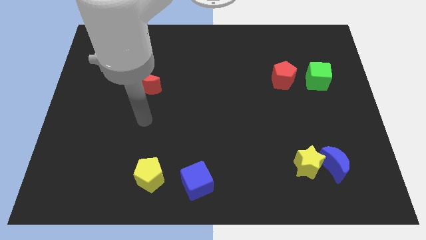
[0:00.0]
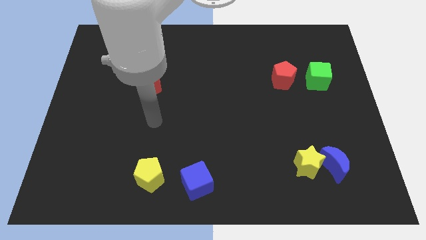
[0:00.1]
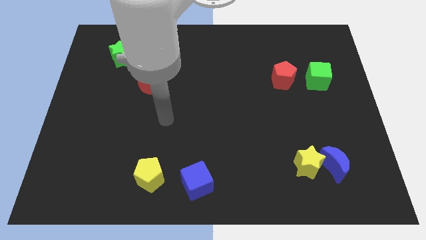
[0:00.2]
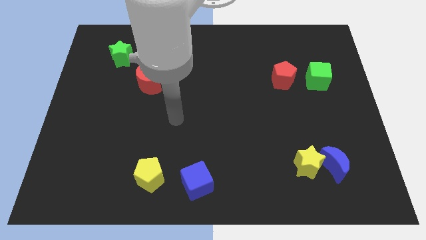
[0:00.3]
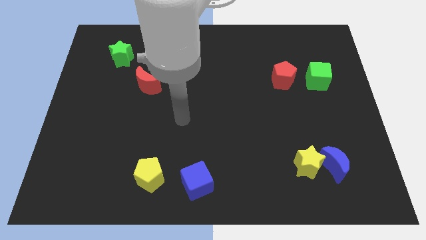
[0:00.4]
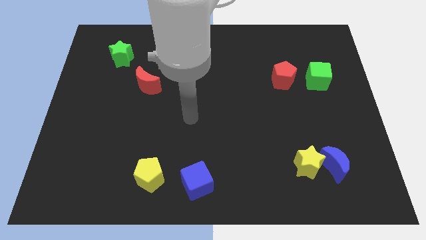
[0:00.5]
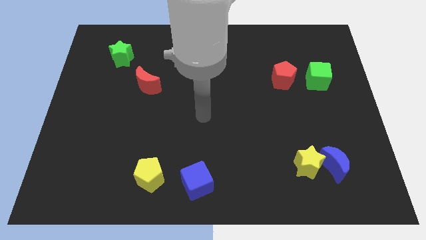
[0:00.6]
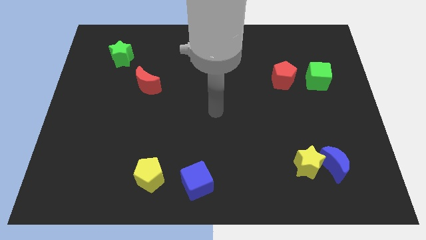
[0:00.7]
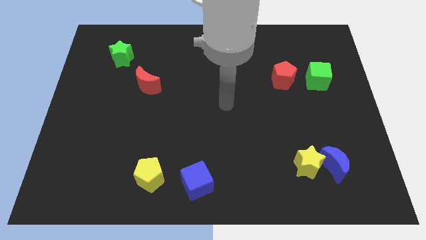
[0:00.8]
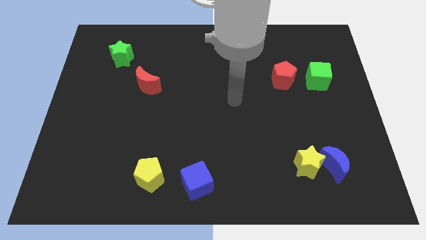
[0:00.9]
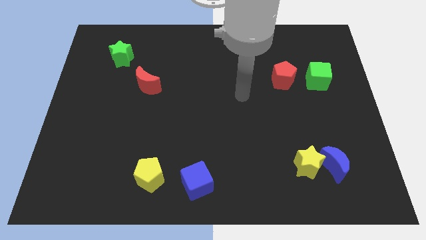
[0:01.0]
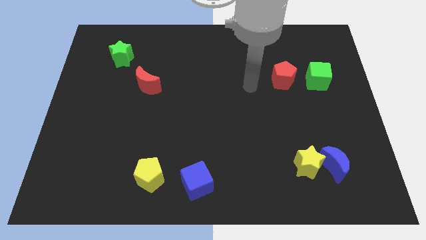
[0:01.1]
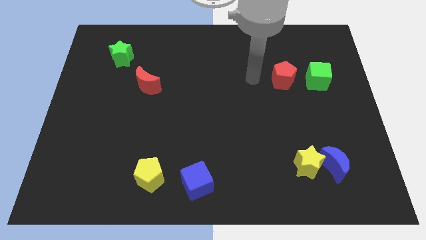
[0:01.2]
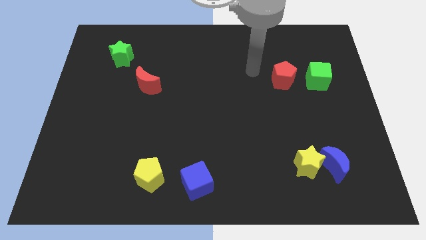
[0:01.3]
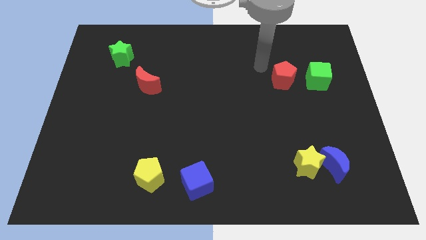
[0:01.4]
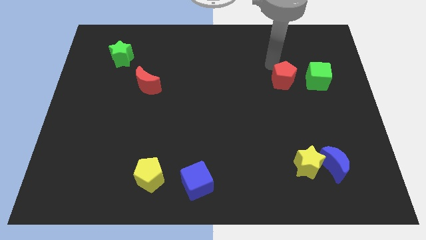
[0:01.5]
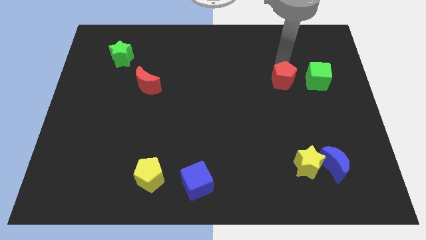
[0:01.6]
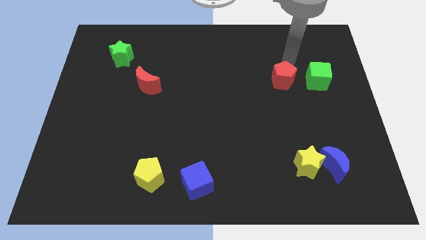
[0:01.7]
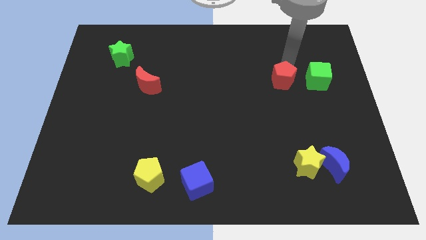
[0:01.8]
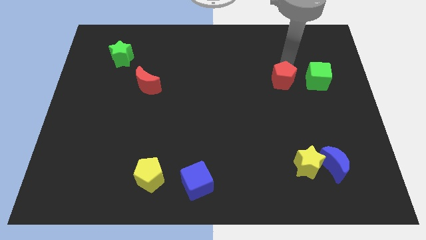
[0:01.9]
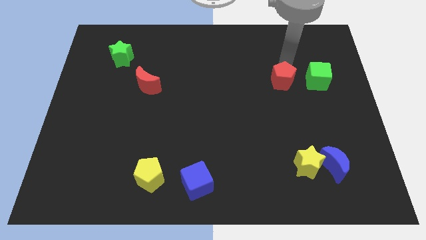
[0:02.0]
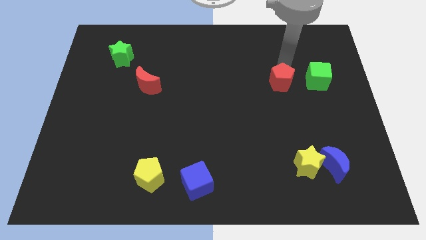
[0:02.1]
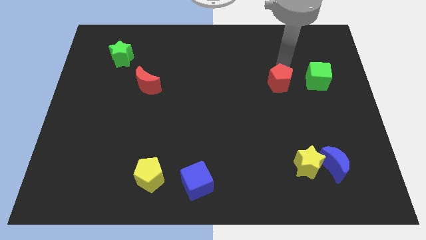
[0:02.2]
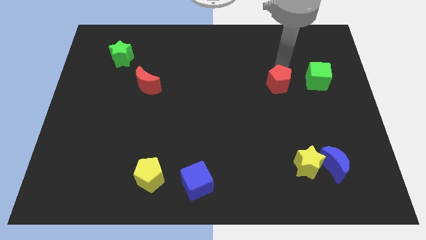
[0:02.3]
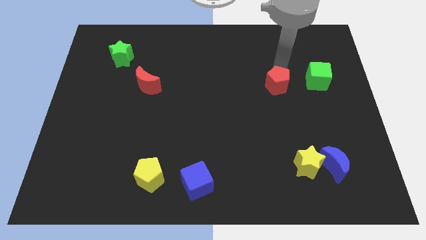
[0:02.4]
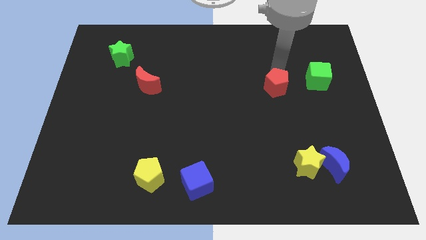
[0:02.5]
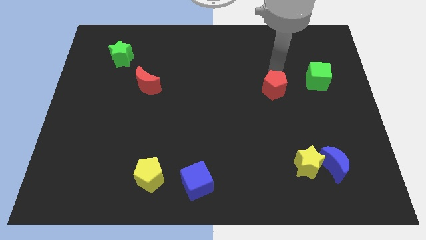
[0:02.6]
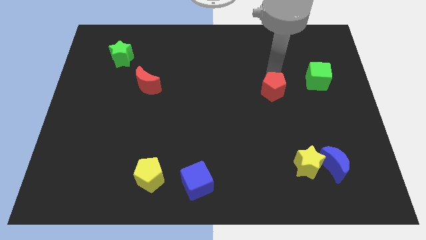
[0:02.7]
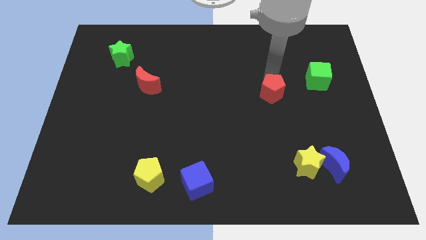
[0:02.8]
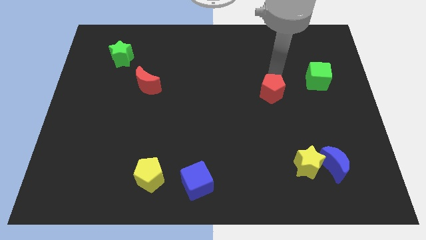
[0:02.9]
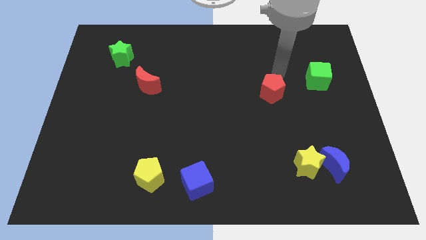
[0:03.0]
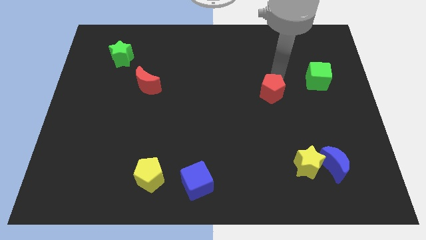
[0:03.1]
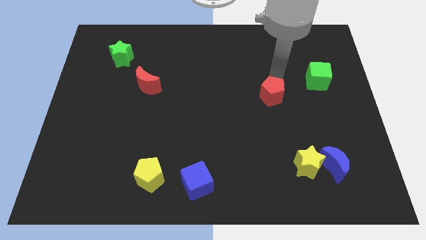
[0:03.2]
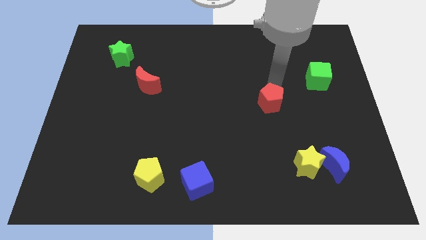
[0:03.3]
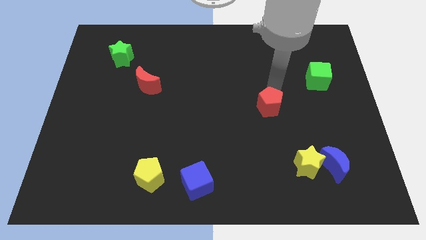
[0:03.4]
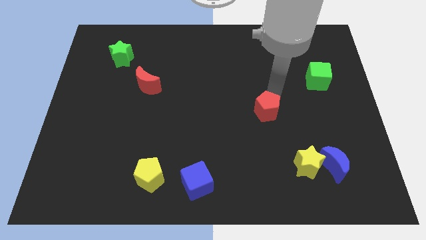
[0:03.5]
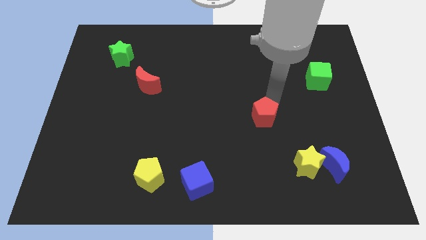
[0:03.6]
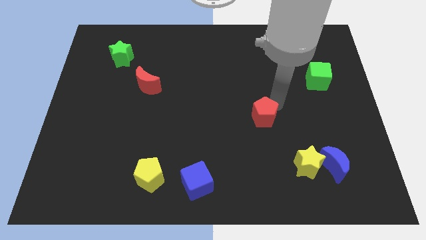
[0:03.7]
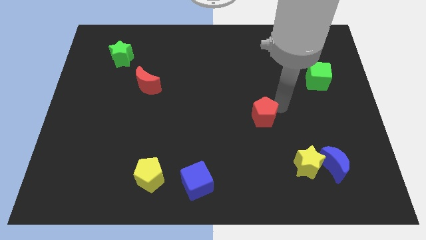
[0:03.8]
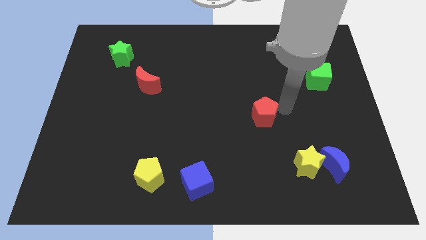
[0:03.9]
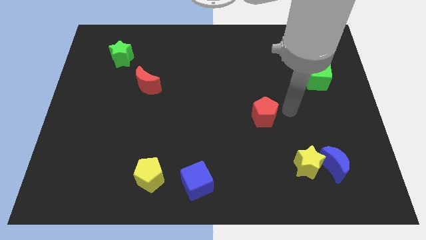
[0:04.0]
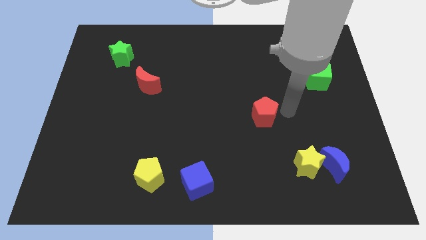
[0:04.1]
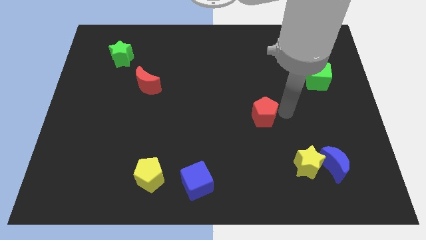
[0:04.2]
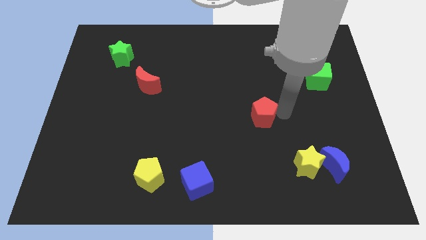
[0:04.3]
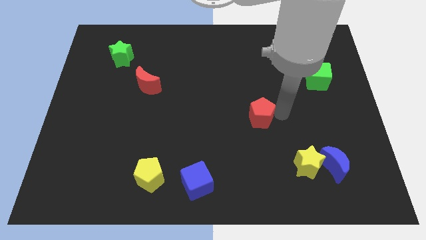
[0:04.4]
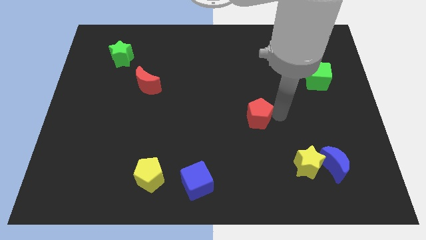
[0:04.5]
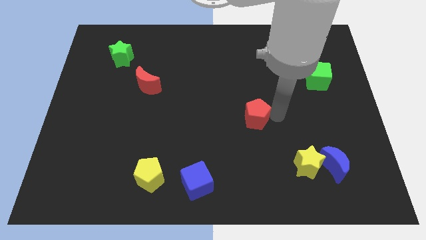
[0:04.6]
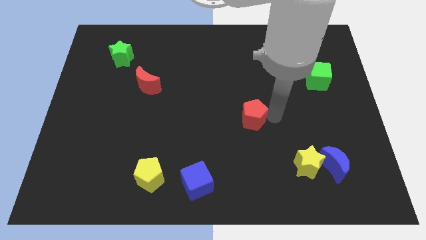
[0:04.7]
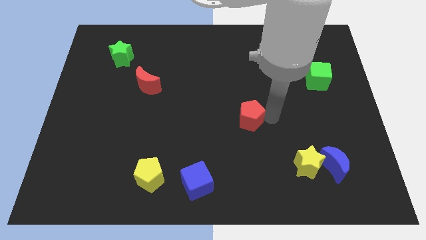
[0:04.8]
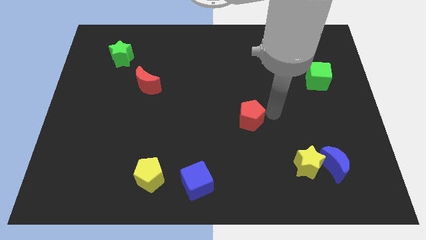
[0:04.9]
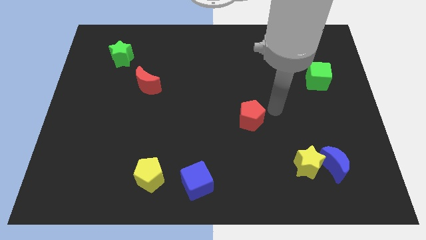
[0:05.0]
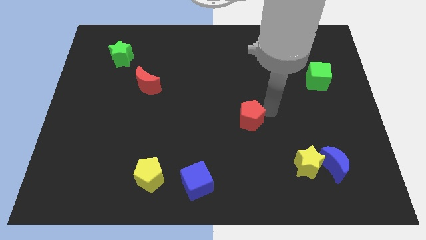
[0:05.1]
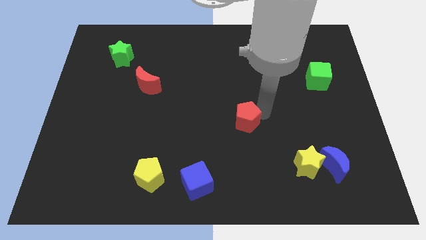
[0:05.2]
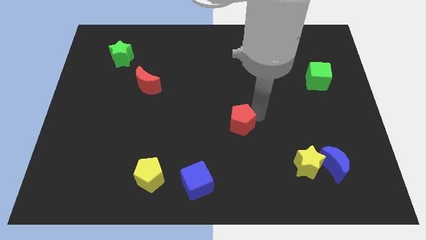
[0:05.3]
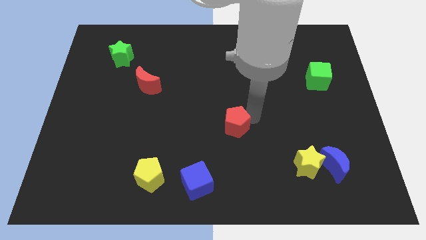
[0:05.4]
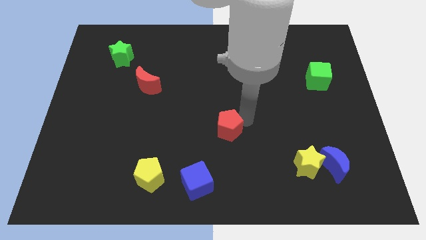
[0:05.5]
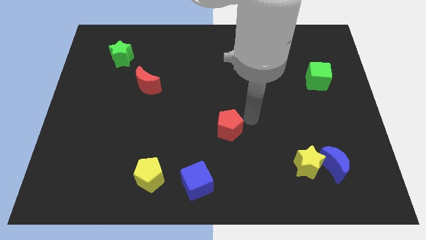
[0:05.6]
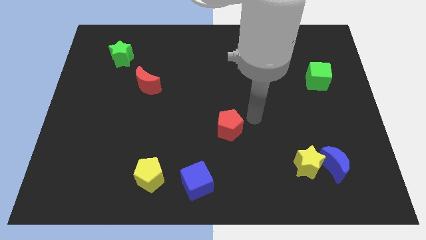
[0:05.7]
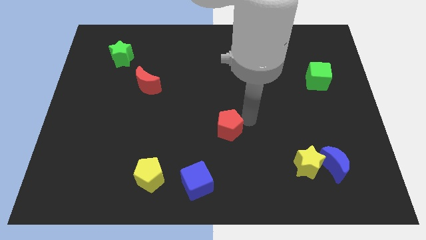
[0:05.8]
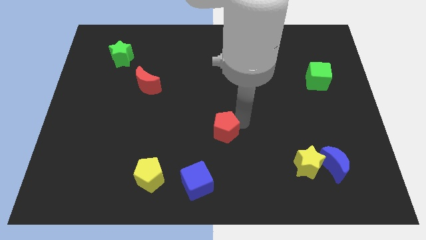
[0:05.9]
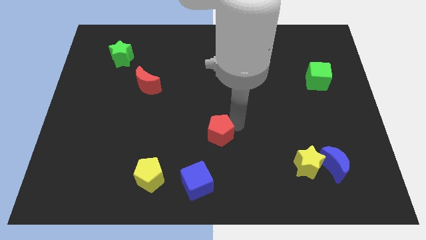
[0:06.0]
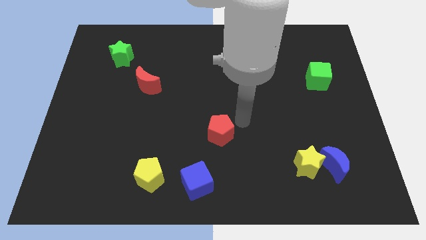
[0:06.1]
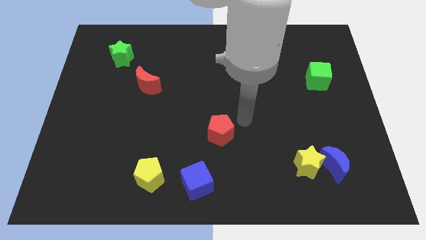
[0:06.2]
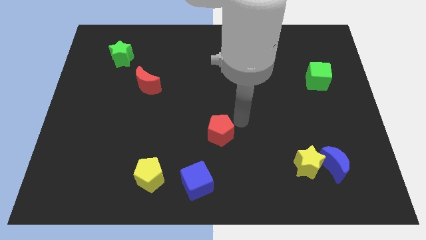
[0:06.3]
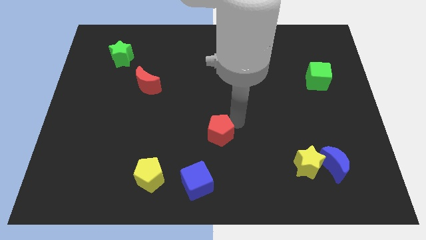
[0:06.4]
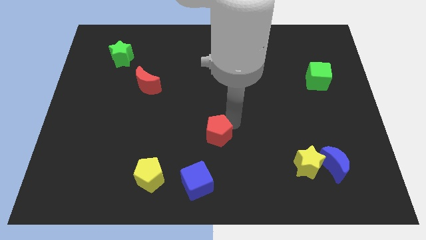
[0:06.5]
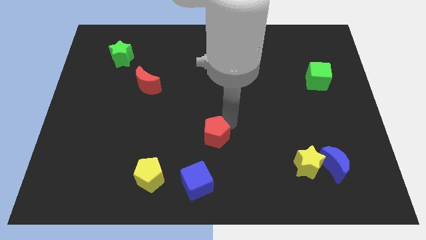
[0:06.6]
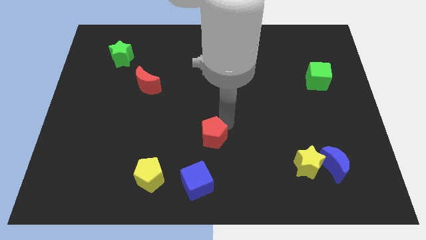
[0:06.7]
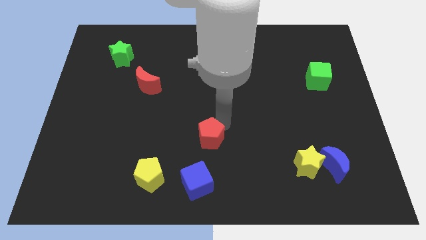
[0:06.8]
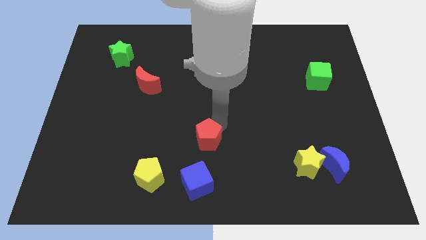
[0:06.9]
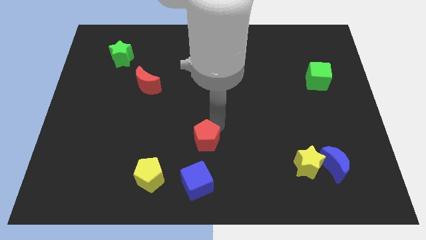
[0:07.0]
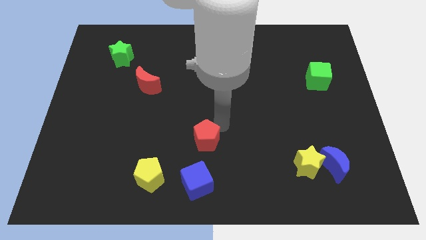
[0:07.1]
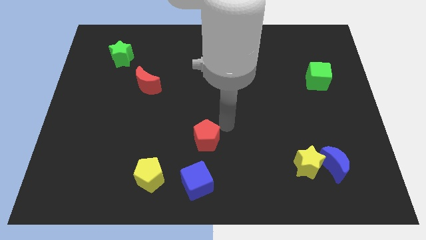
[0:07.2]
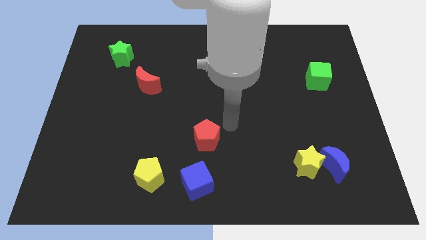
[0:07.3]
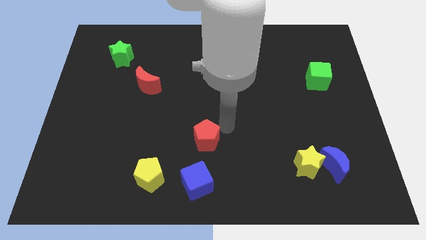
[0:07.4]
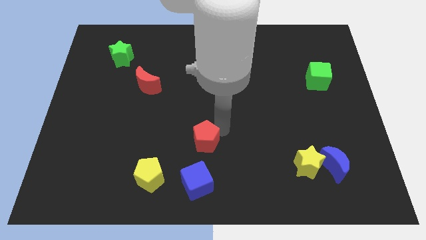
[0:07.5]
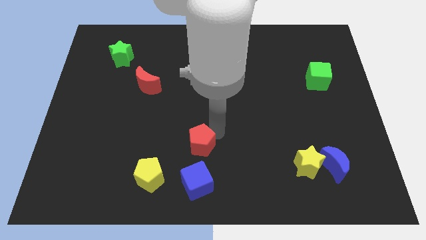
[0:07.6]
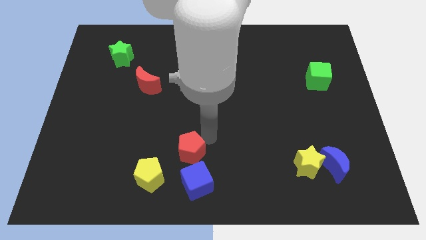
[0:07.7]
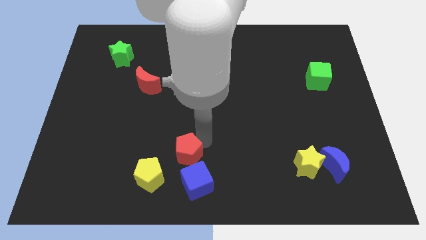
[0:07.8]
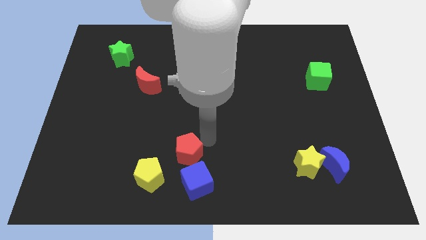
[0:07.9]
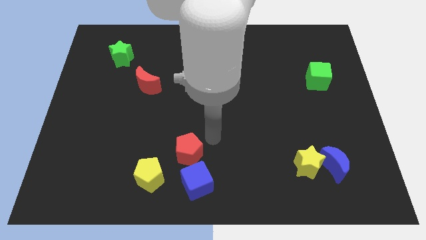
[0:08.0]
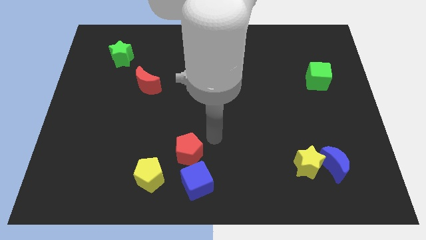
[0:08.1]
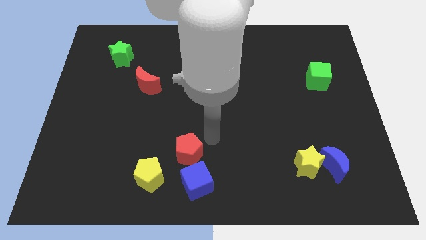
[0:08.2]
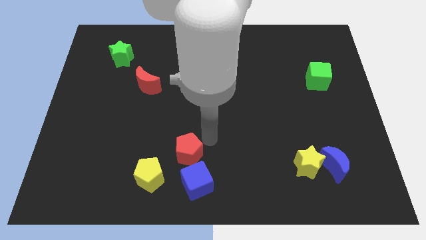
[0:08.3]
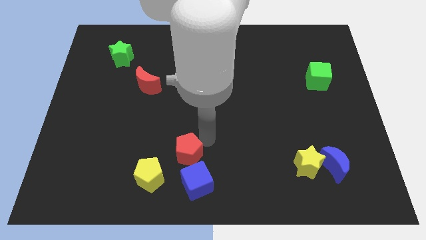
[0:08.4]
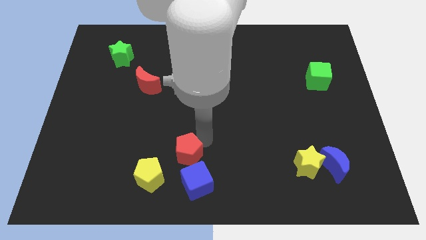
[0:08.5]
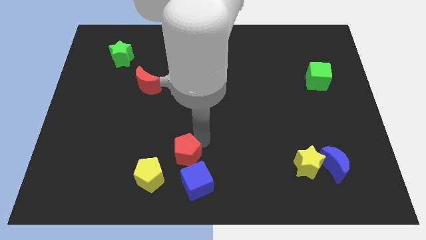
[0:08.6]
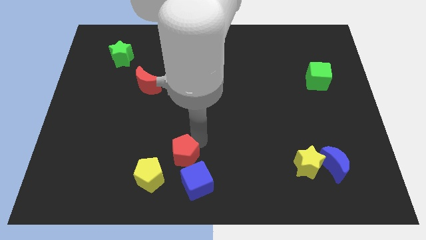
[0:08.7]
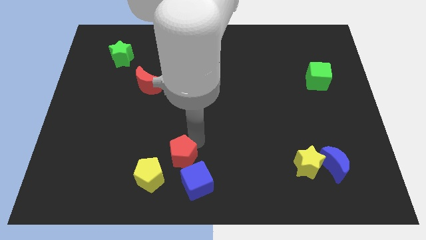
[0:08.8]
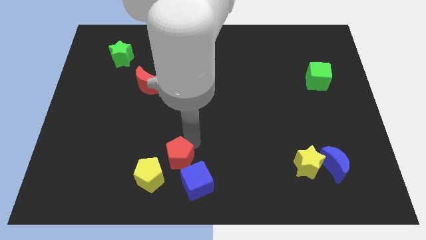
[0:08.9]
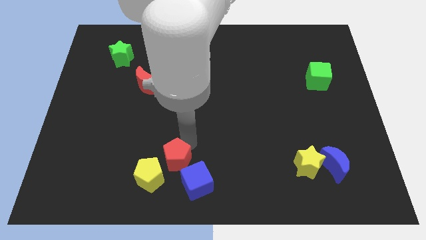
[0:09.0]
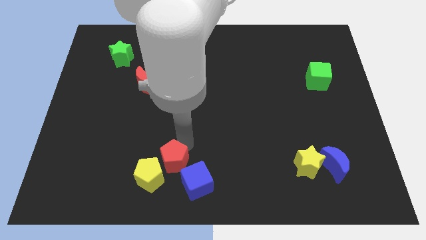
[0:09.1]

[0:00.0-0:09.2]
put the red pentagon close to the yellow pentagon
